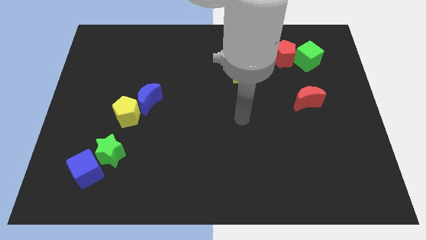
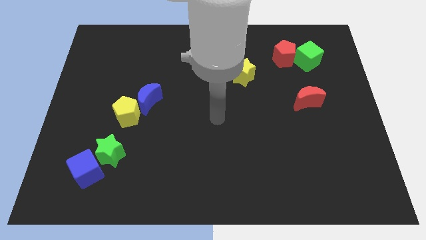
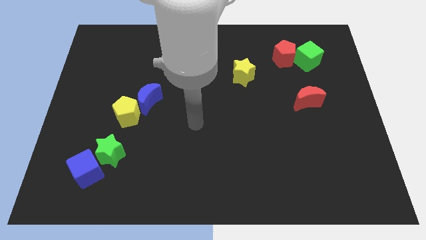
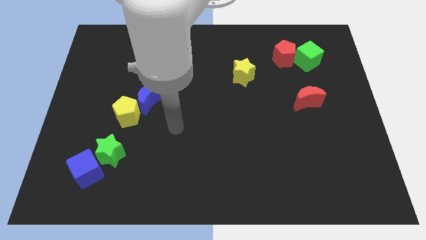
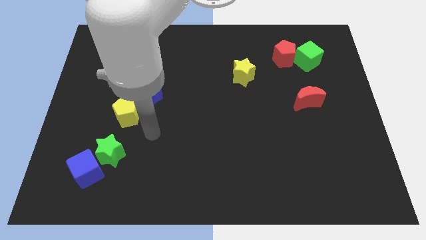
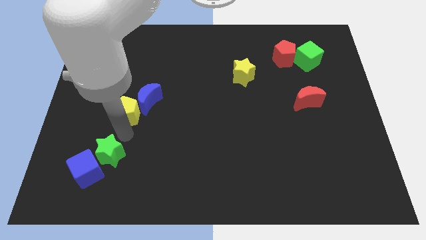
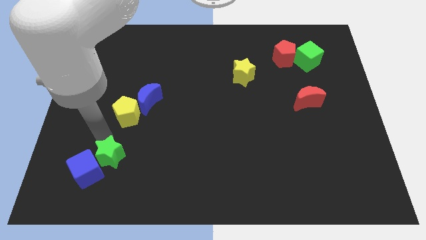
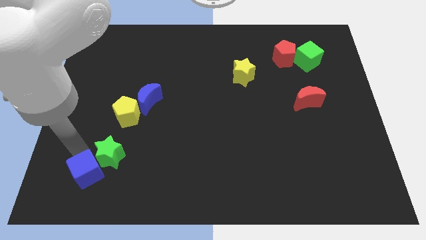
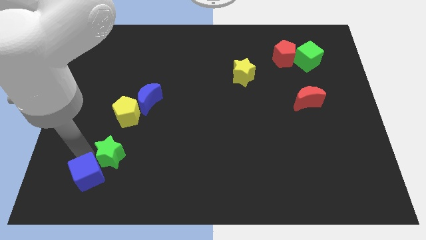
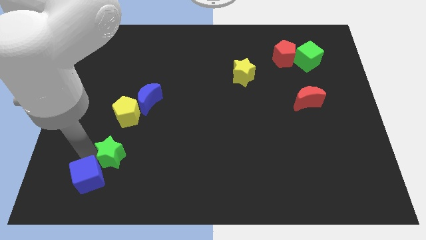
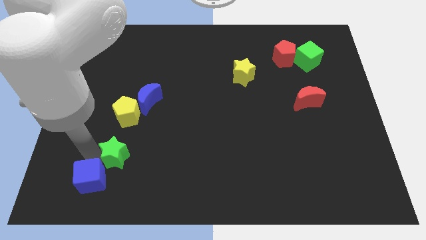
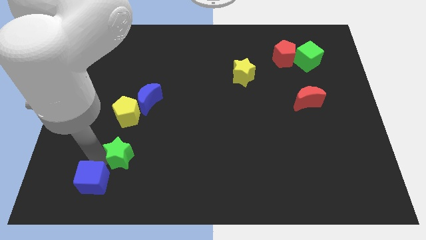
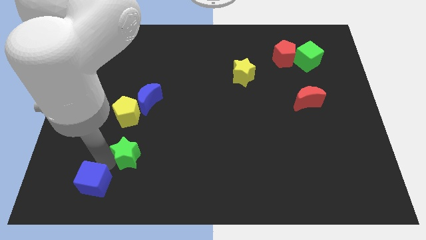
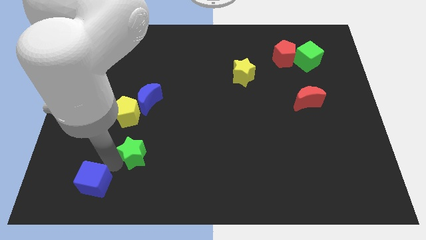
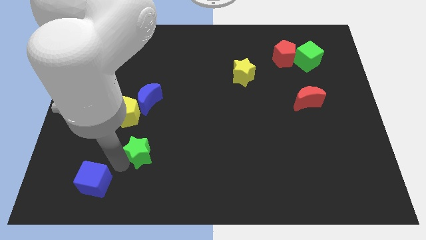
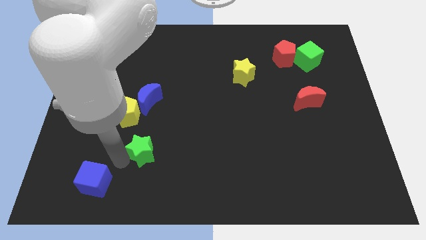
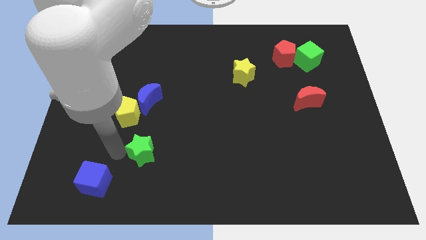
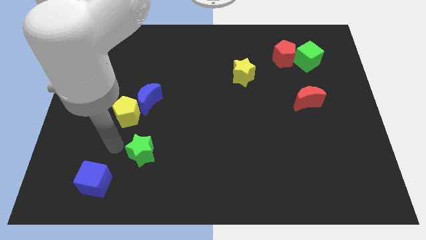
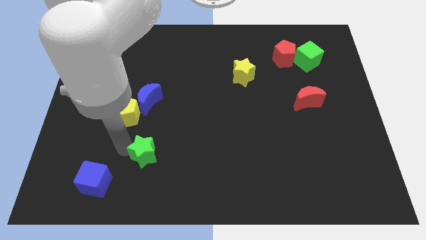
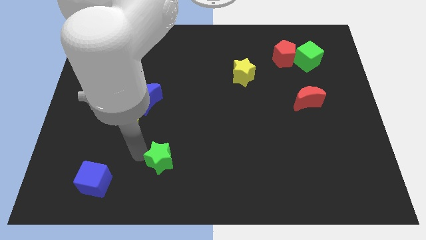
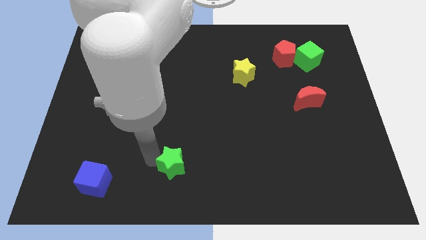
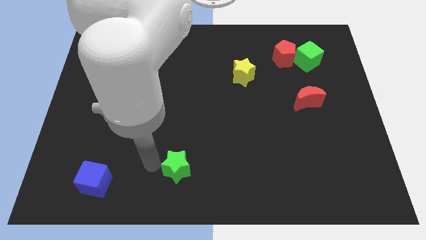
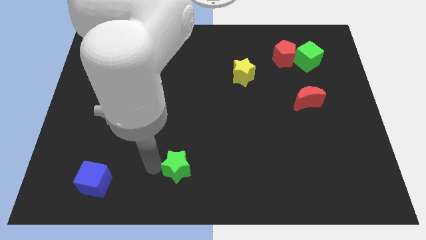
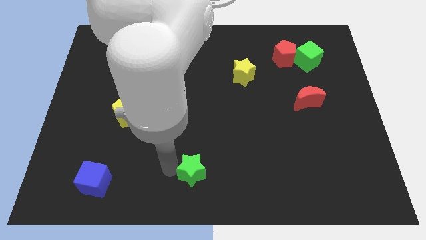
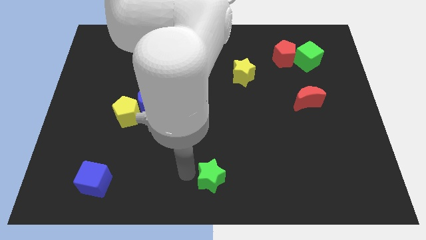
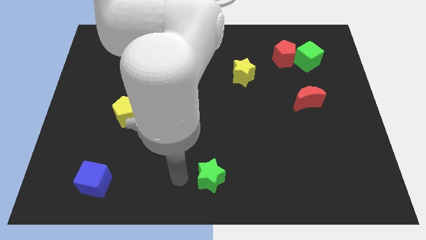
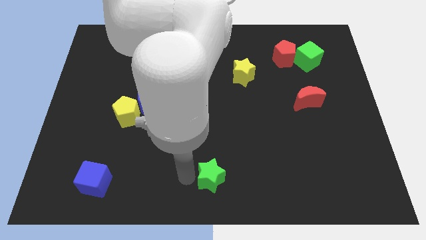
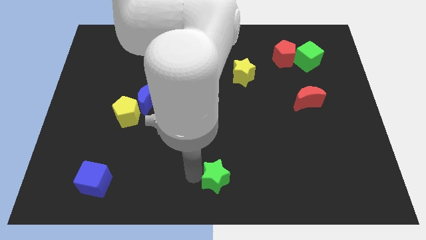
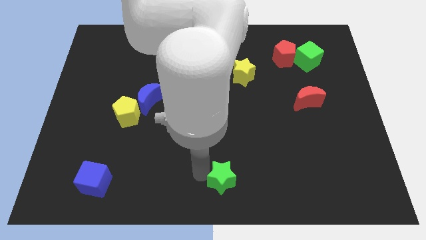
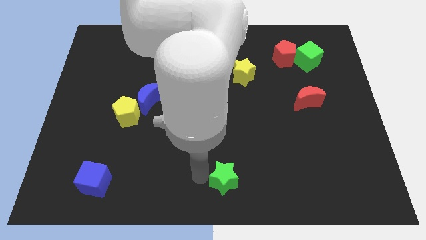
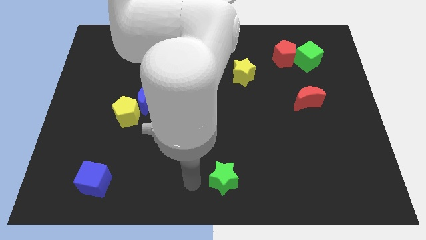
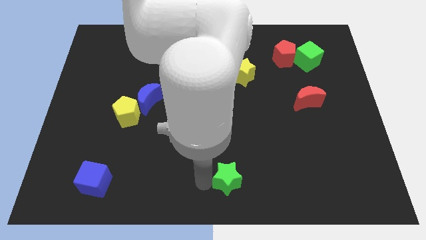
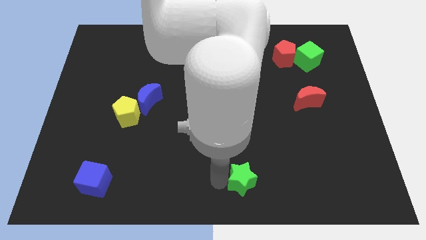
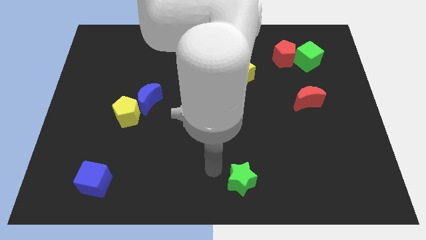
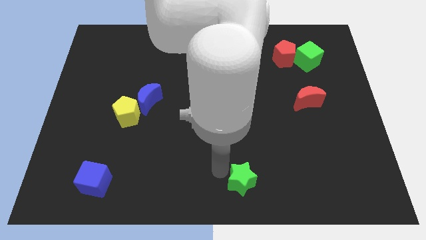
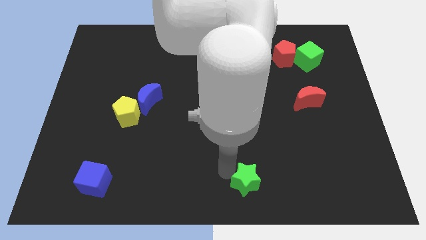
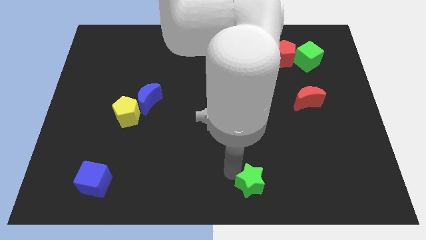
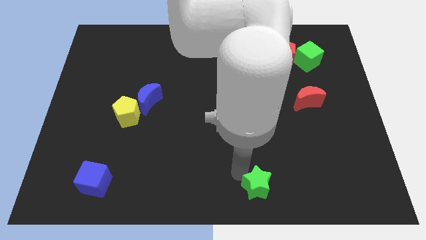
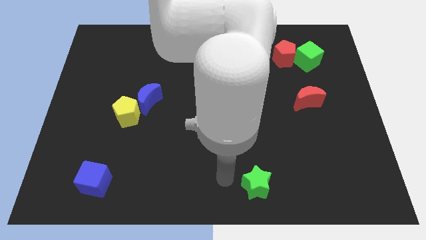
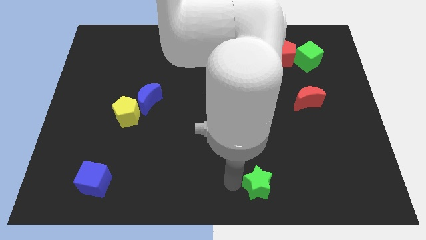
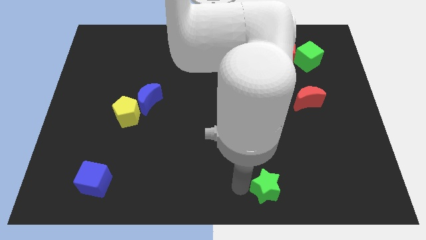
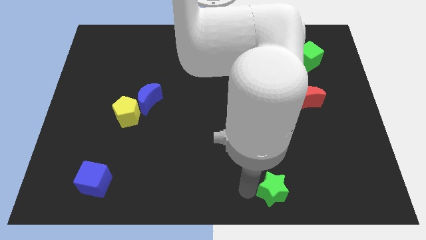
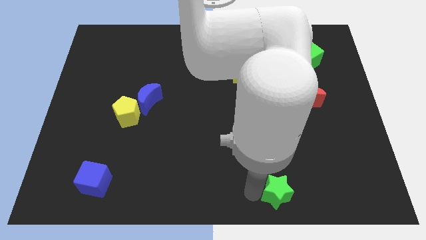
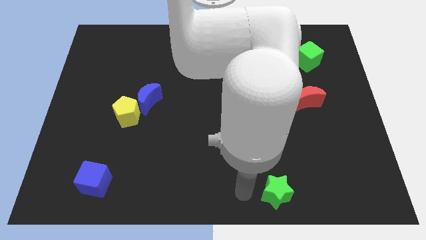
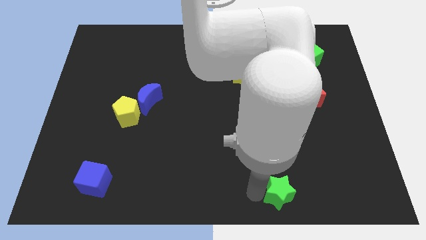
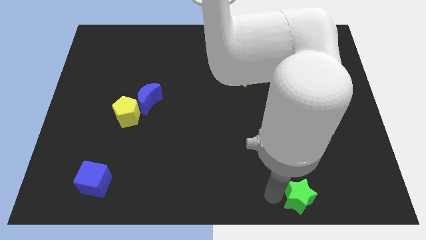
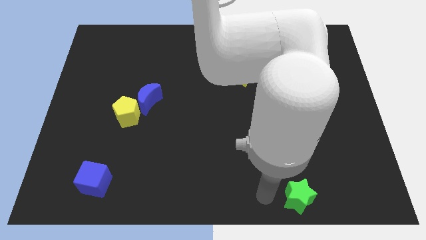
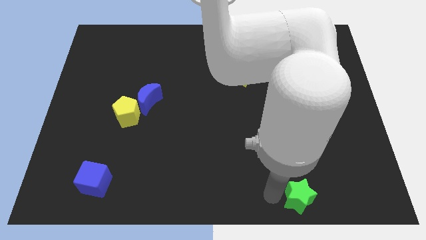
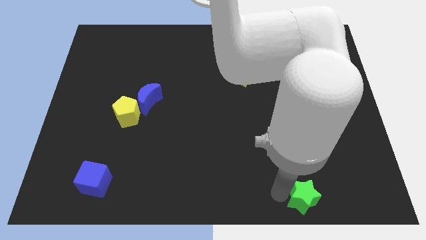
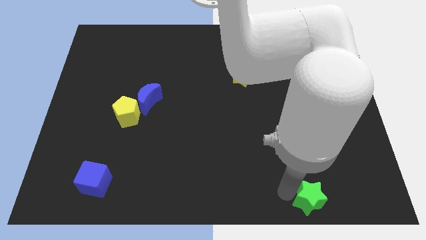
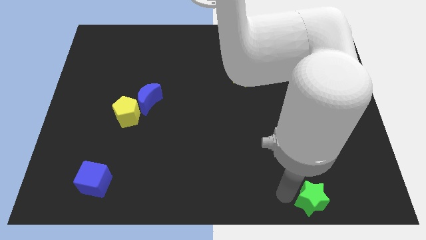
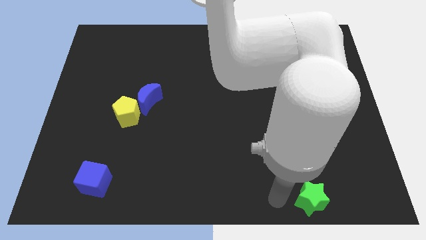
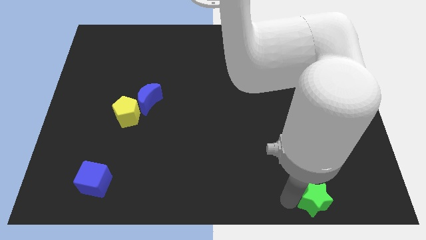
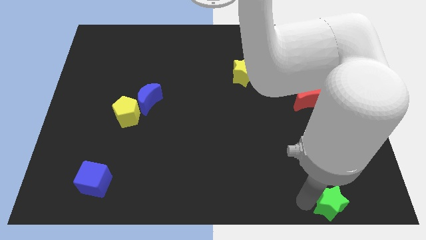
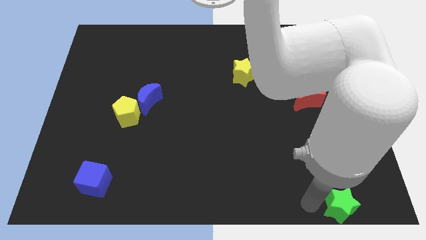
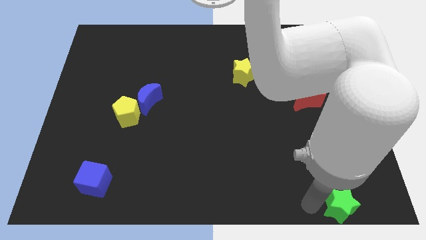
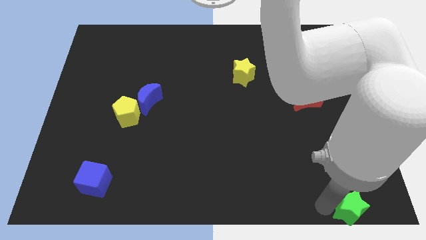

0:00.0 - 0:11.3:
slide the green star to the bottom right of the board
